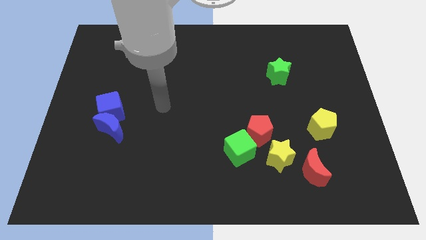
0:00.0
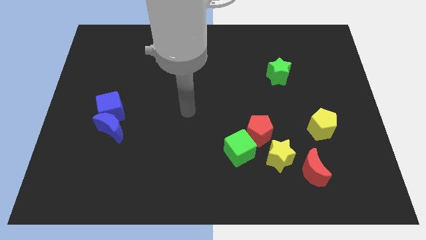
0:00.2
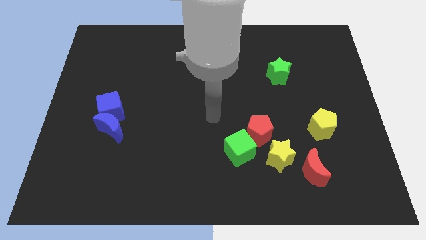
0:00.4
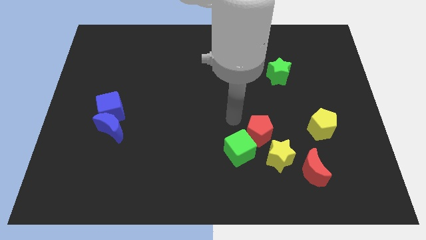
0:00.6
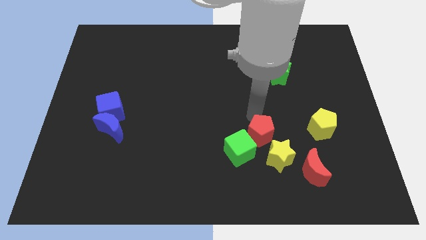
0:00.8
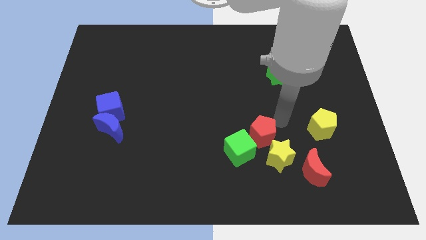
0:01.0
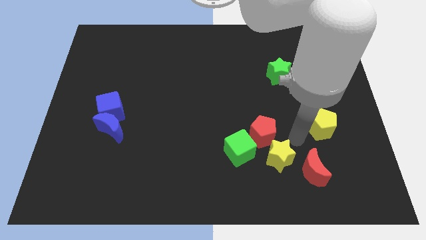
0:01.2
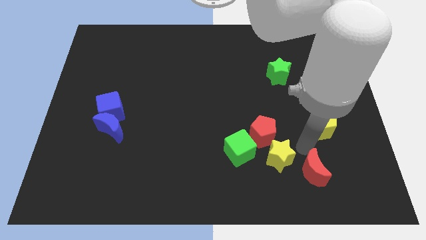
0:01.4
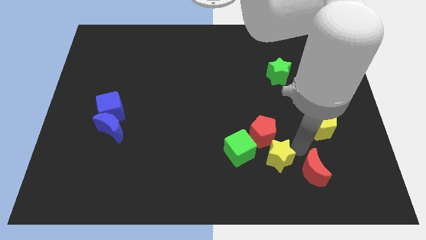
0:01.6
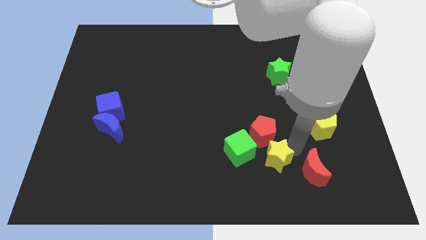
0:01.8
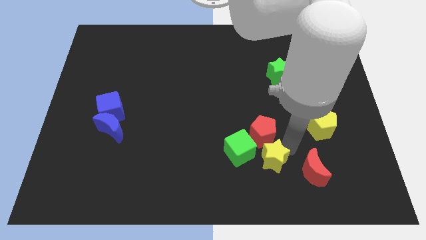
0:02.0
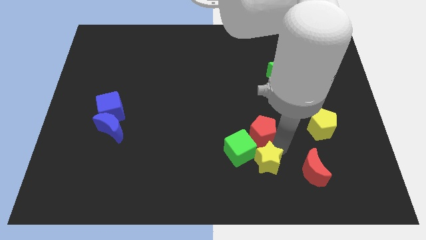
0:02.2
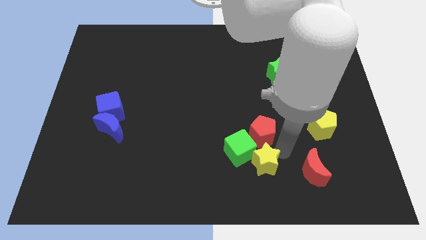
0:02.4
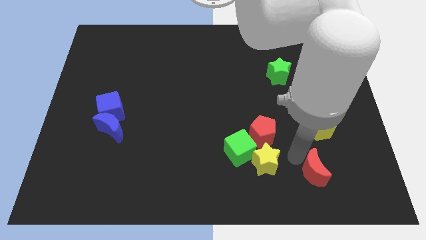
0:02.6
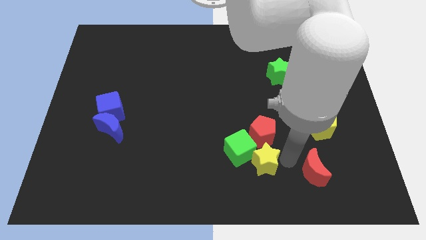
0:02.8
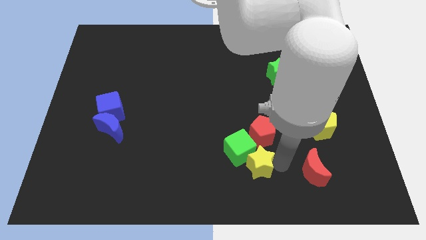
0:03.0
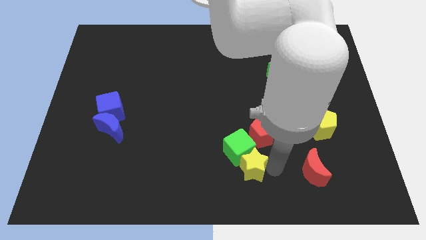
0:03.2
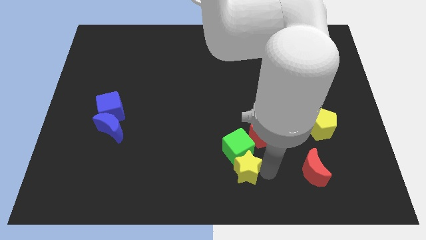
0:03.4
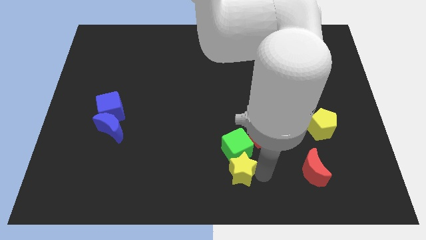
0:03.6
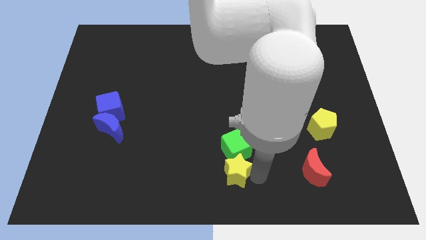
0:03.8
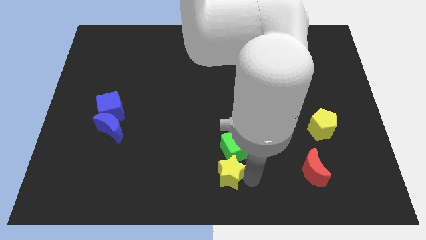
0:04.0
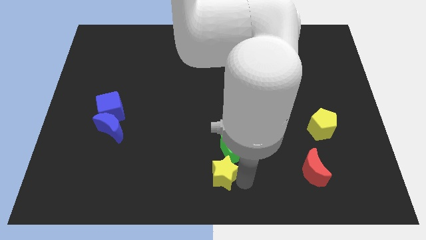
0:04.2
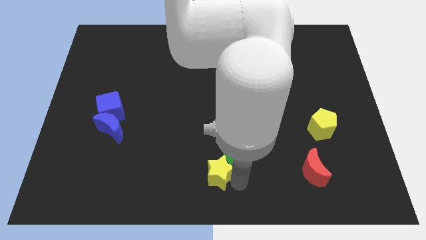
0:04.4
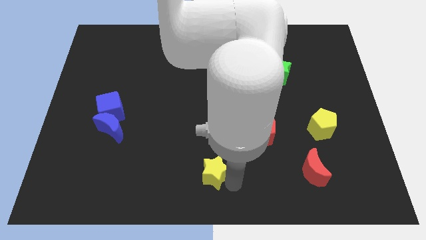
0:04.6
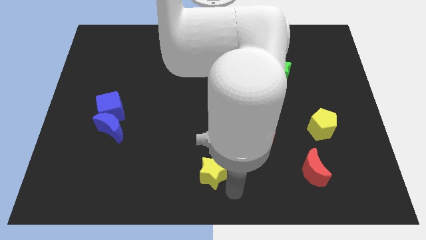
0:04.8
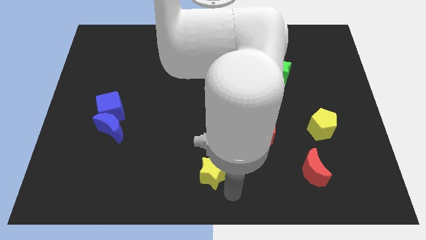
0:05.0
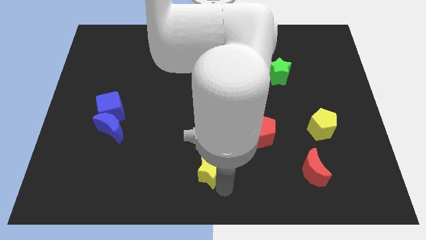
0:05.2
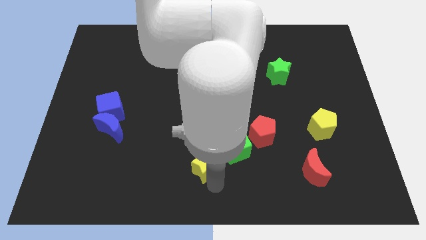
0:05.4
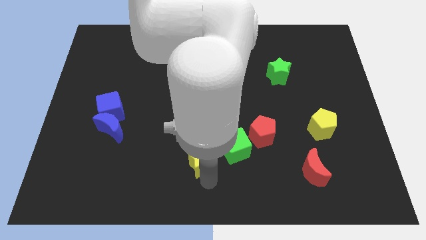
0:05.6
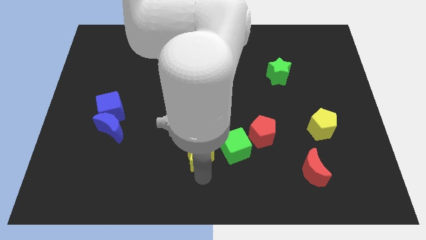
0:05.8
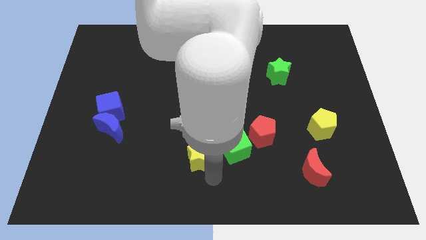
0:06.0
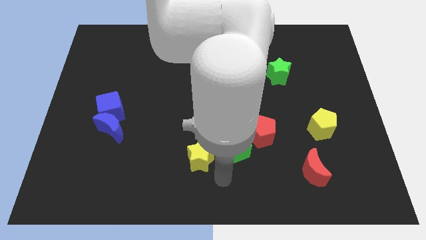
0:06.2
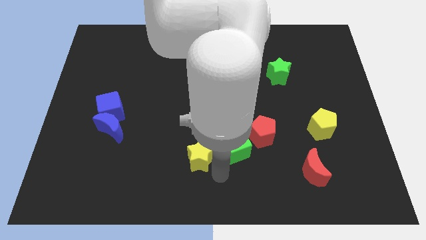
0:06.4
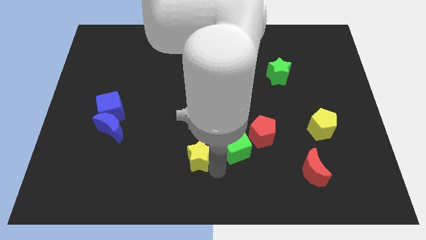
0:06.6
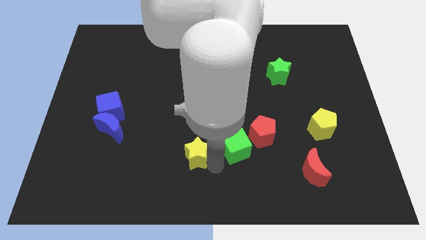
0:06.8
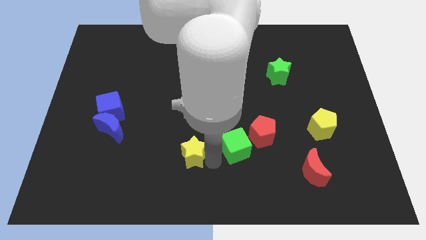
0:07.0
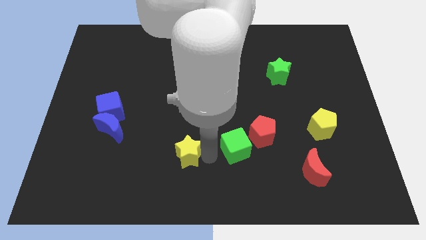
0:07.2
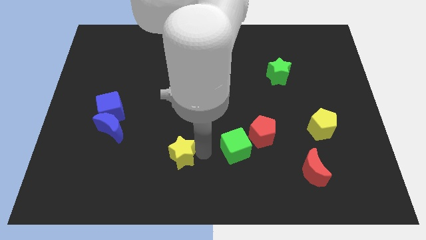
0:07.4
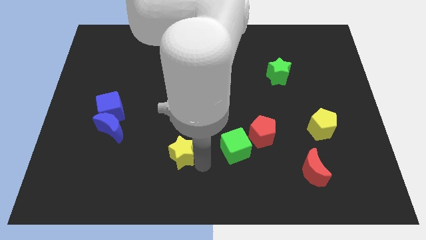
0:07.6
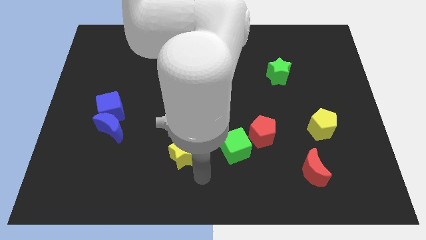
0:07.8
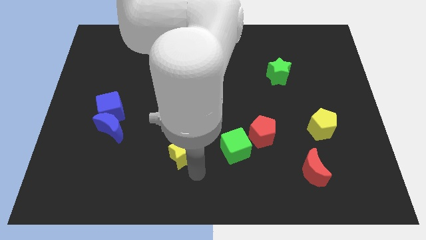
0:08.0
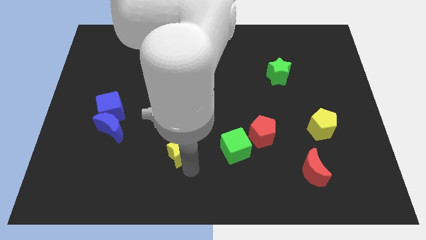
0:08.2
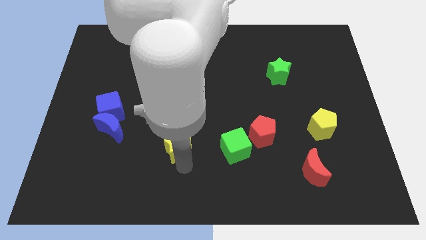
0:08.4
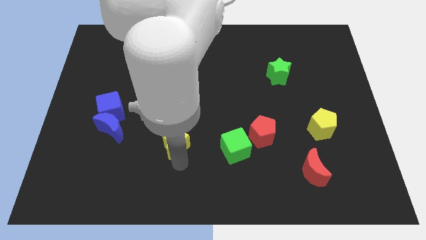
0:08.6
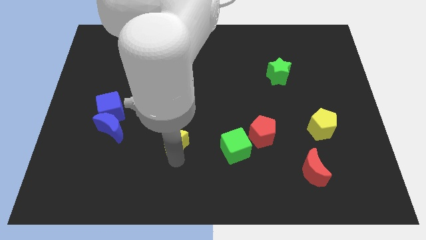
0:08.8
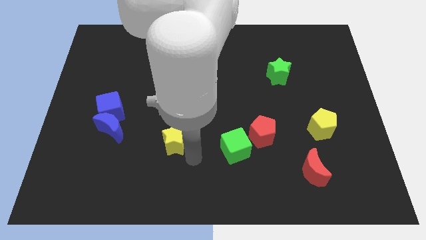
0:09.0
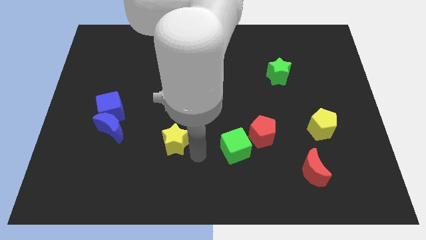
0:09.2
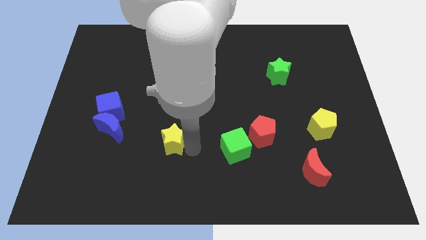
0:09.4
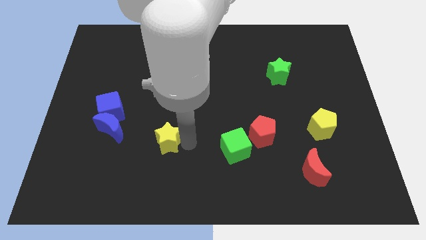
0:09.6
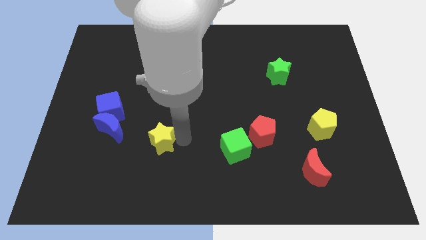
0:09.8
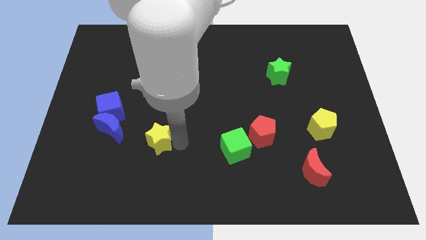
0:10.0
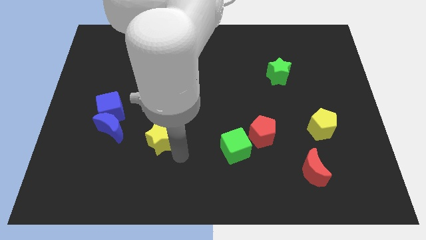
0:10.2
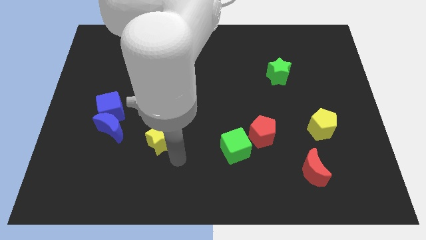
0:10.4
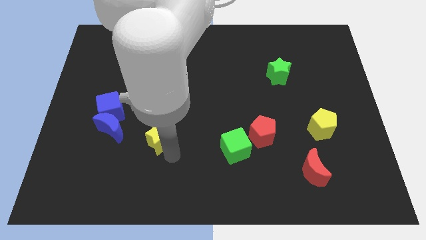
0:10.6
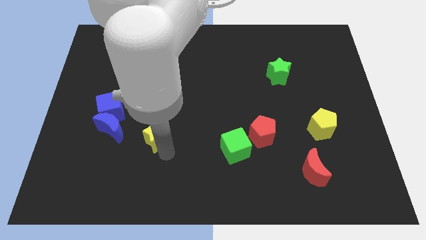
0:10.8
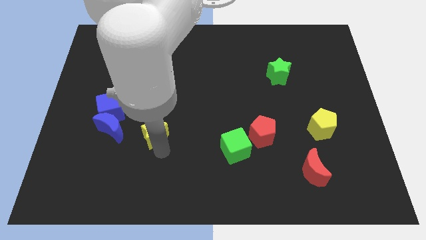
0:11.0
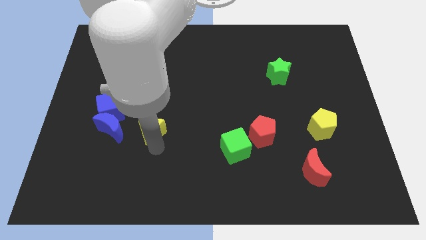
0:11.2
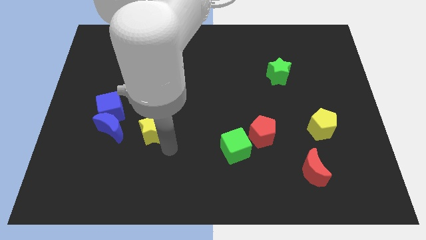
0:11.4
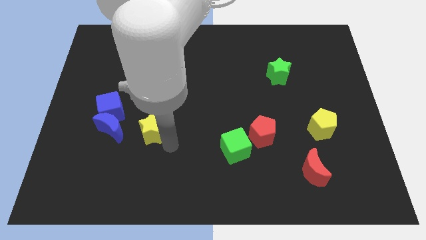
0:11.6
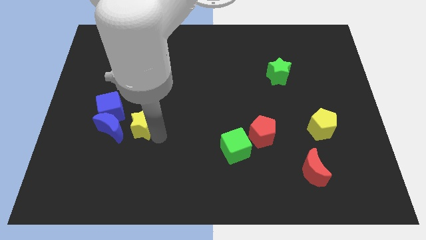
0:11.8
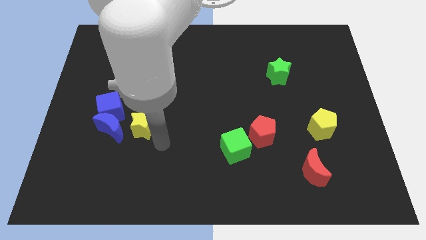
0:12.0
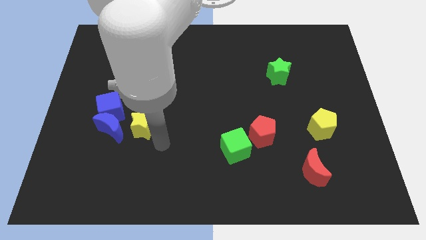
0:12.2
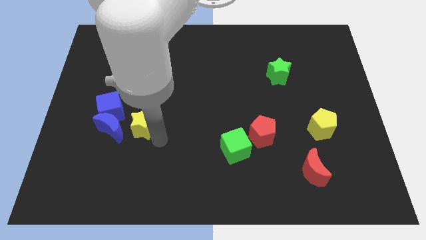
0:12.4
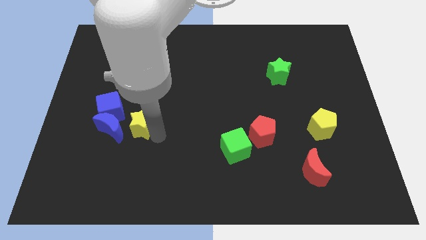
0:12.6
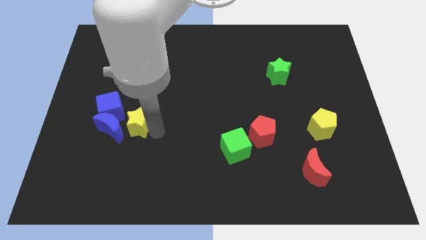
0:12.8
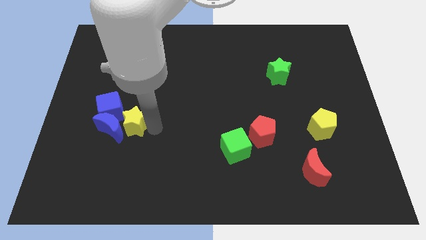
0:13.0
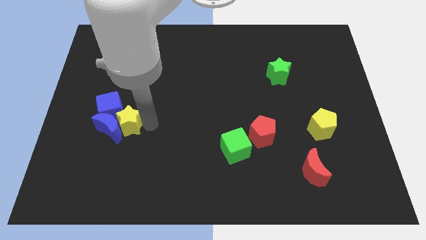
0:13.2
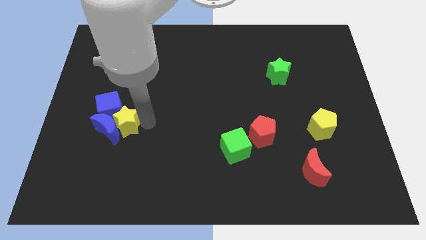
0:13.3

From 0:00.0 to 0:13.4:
push the yellow star next to the blue cube

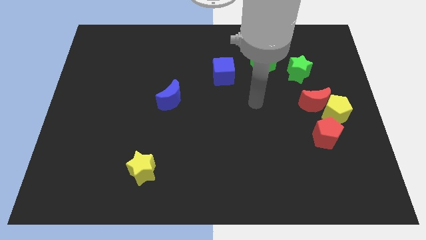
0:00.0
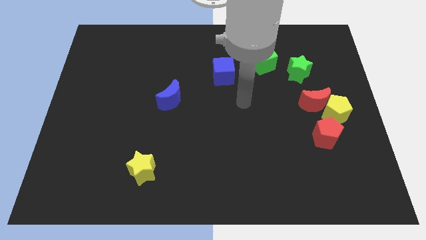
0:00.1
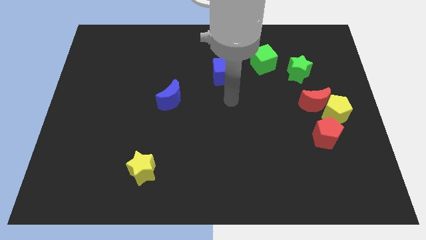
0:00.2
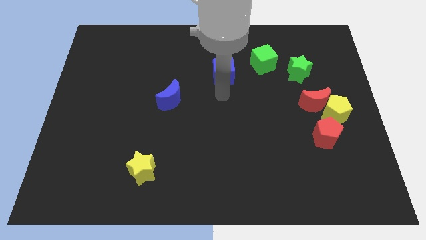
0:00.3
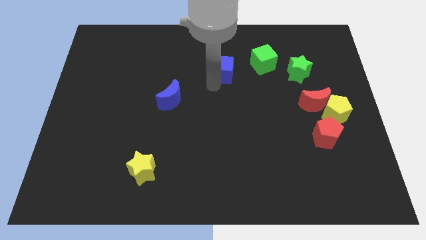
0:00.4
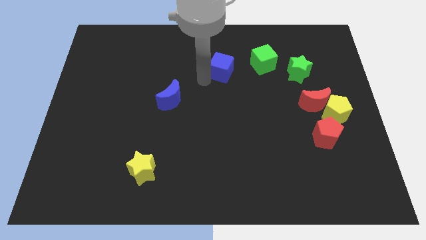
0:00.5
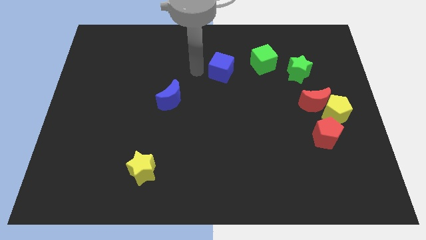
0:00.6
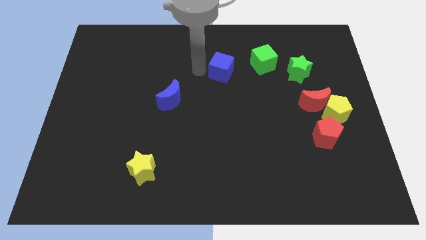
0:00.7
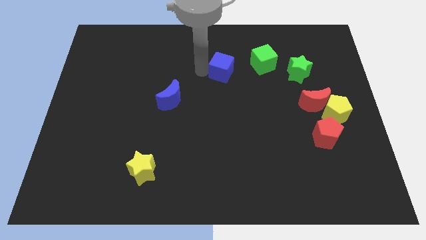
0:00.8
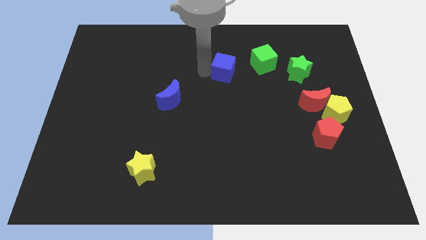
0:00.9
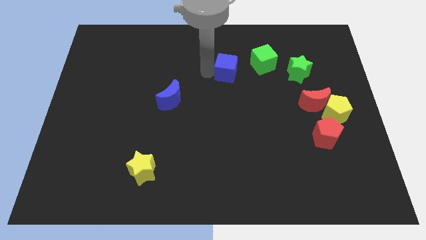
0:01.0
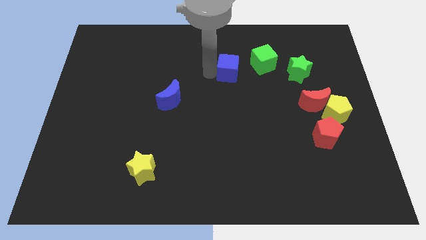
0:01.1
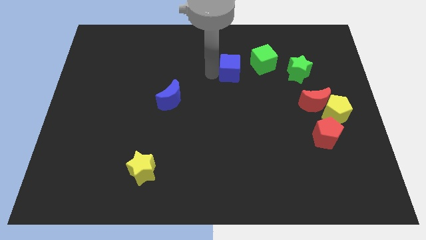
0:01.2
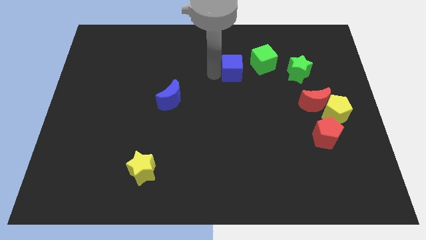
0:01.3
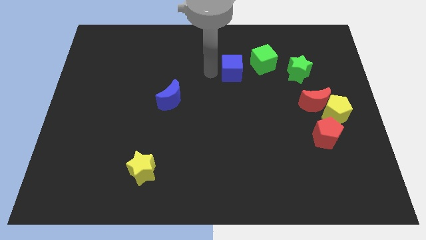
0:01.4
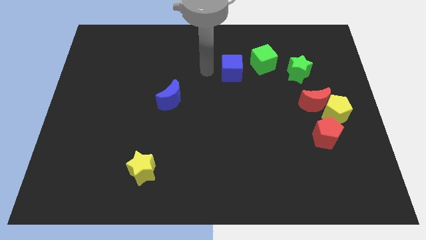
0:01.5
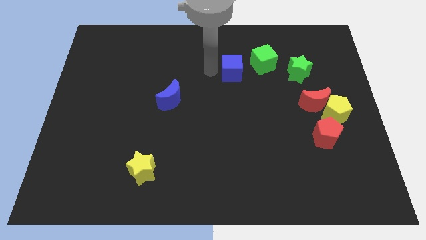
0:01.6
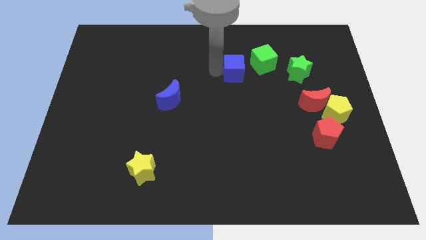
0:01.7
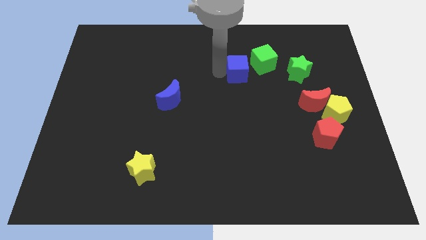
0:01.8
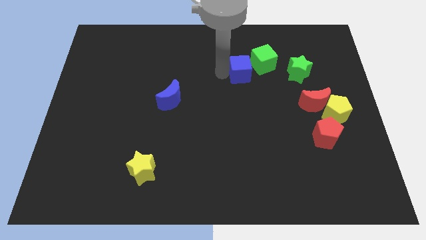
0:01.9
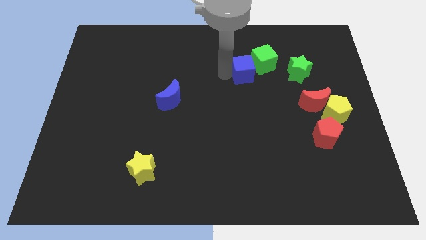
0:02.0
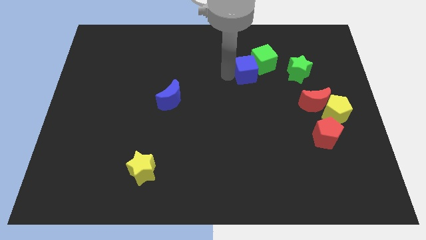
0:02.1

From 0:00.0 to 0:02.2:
put the blue cube to the green cube
